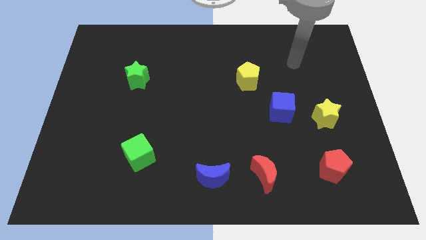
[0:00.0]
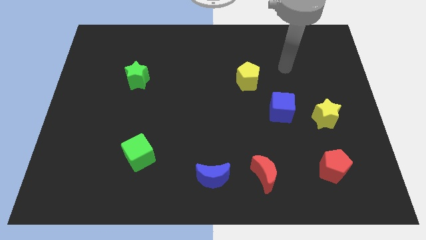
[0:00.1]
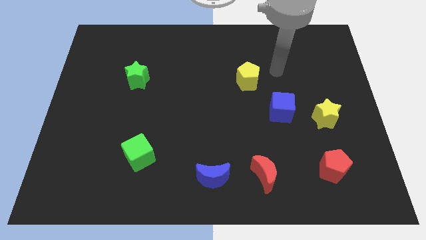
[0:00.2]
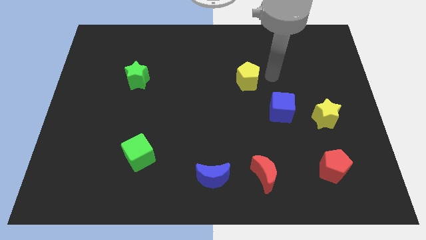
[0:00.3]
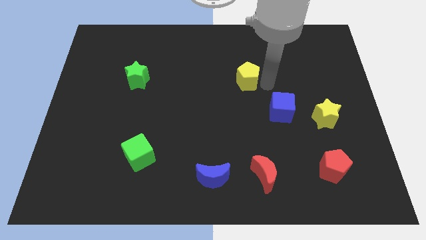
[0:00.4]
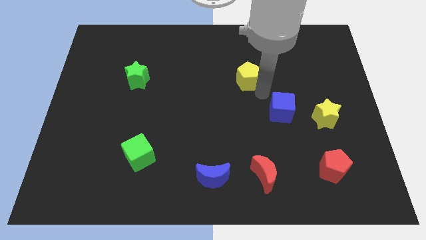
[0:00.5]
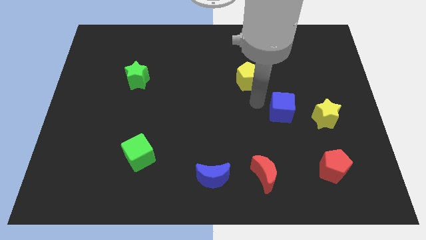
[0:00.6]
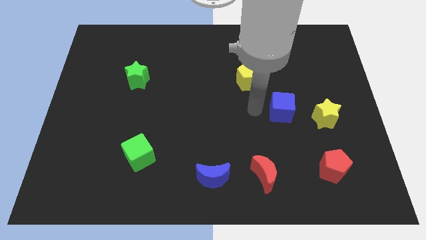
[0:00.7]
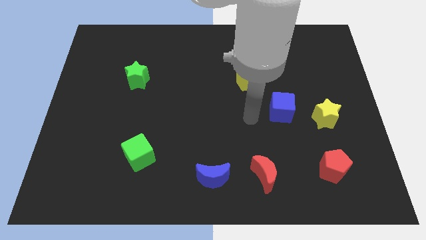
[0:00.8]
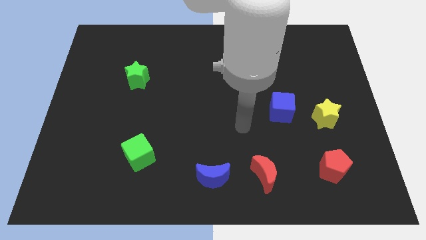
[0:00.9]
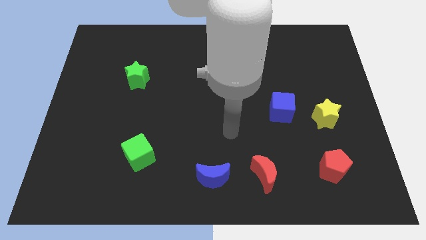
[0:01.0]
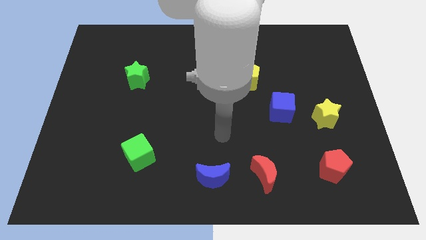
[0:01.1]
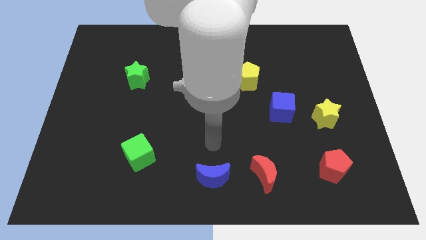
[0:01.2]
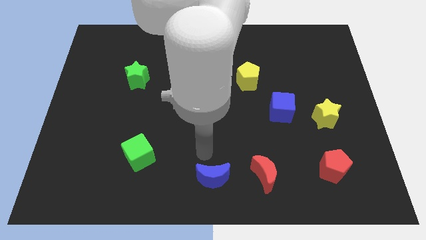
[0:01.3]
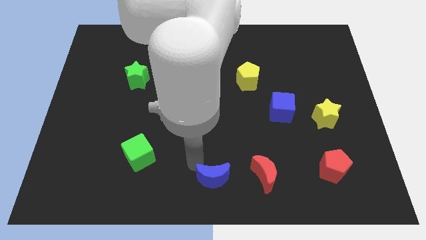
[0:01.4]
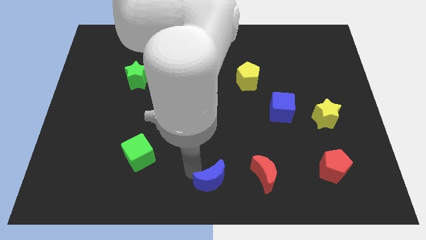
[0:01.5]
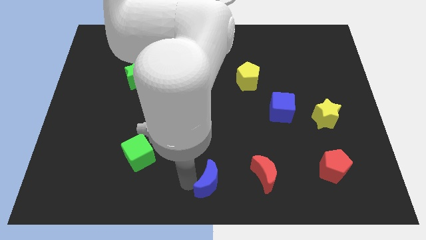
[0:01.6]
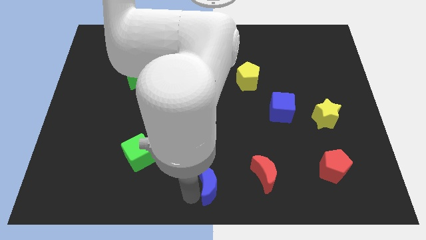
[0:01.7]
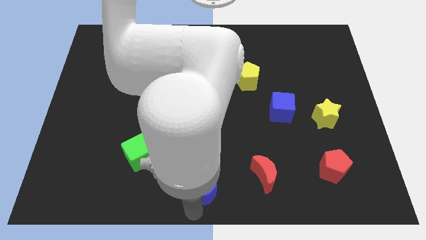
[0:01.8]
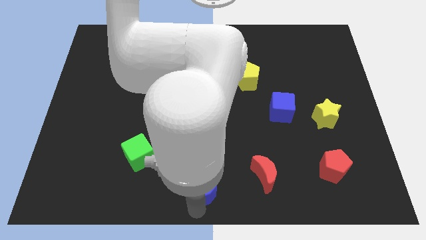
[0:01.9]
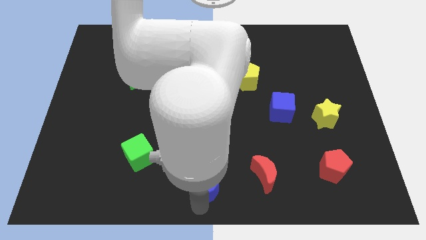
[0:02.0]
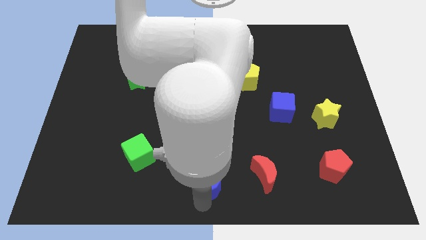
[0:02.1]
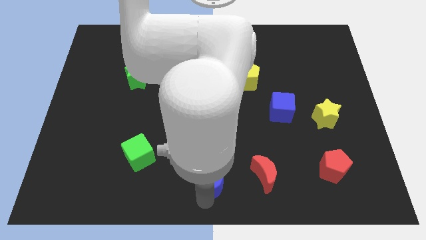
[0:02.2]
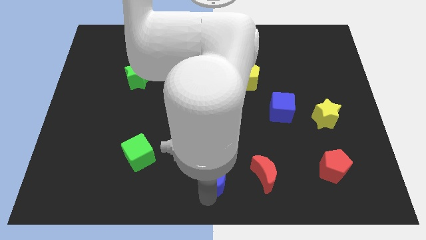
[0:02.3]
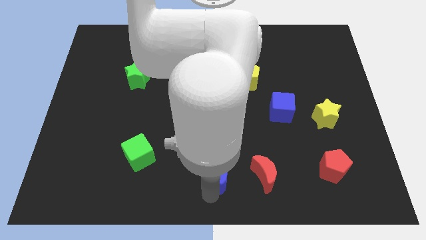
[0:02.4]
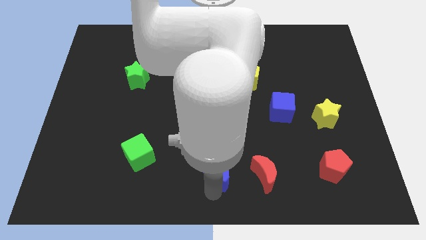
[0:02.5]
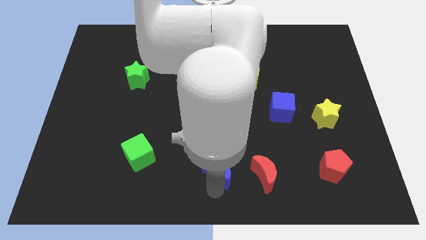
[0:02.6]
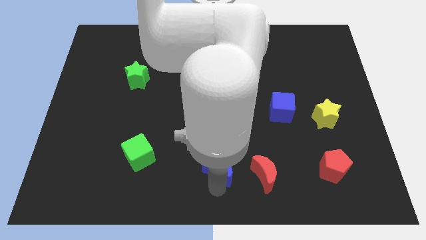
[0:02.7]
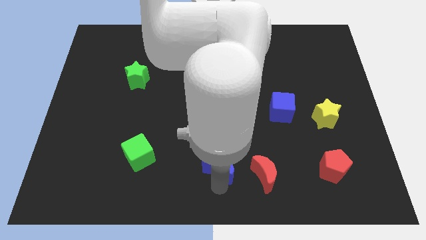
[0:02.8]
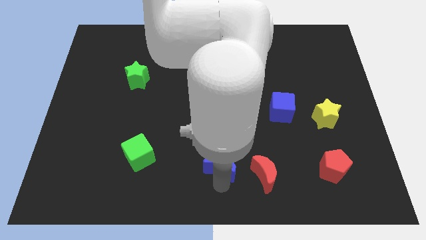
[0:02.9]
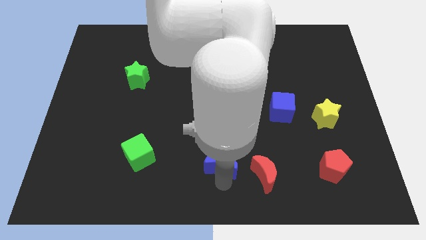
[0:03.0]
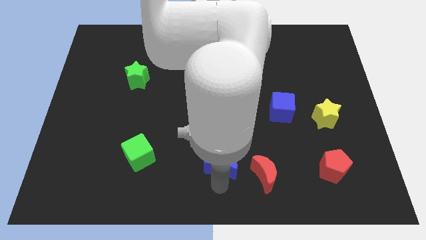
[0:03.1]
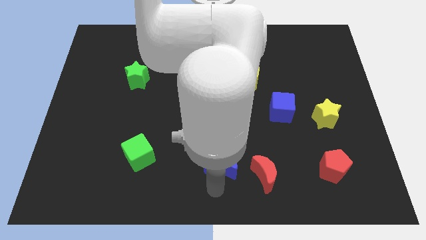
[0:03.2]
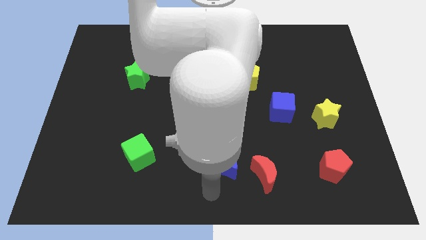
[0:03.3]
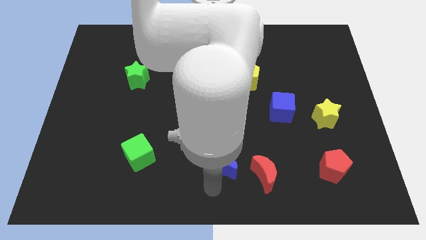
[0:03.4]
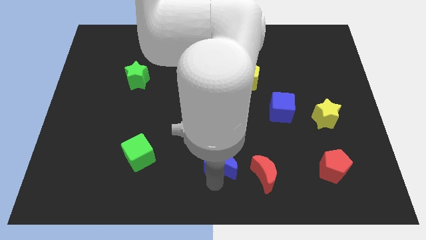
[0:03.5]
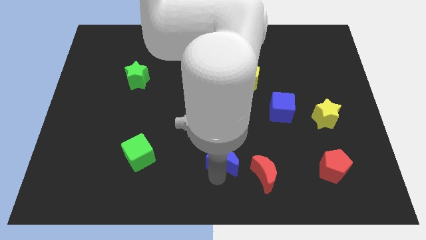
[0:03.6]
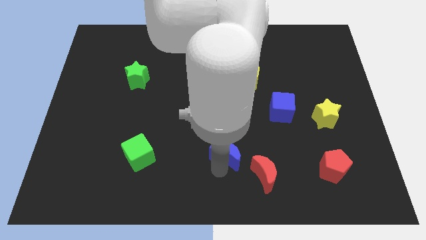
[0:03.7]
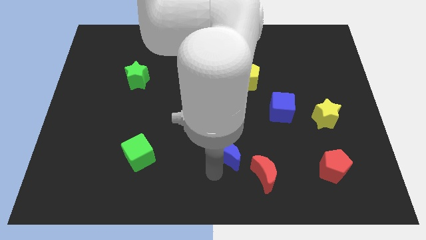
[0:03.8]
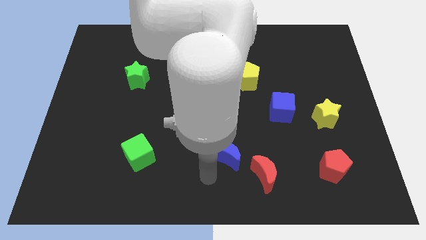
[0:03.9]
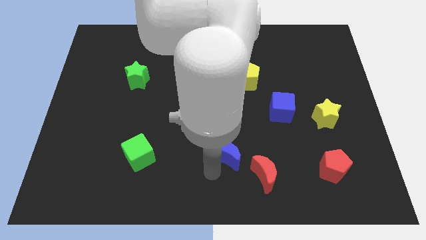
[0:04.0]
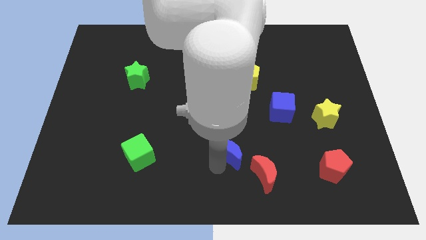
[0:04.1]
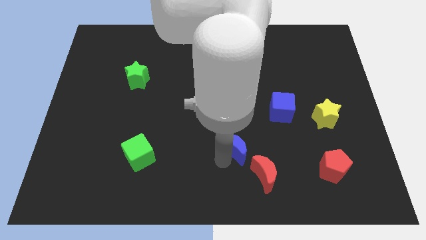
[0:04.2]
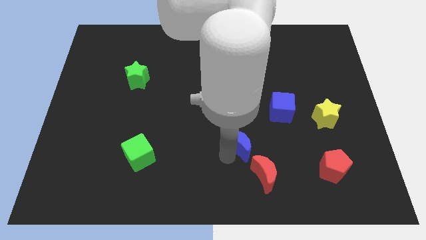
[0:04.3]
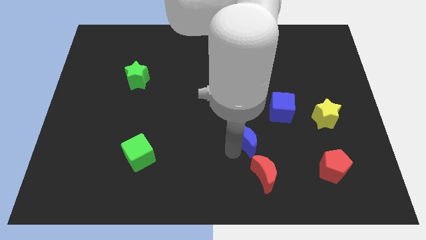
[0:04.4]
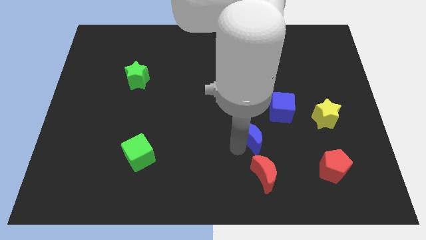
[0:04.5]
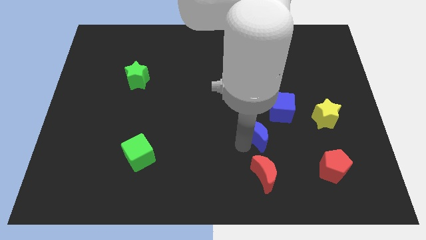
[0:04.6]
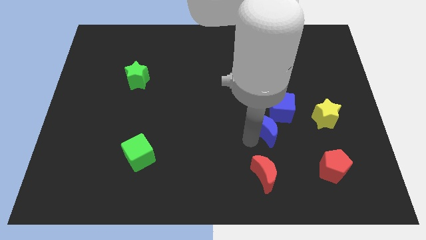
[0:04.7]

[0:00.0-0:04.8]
push the blue moon to the left side of the yellow star

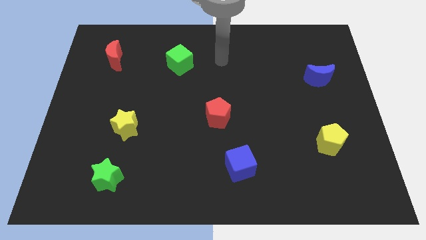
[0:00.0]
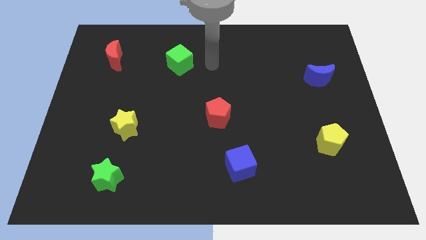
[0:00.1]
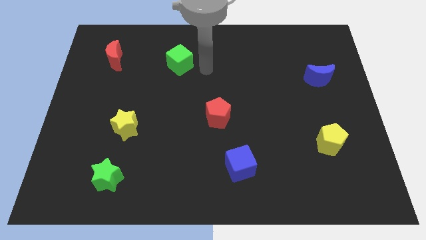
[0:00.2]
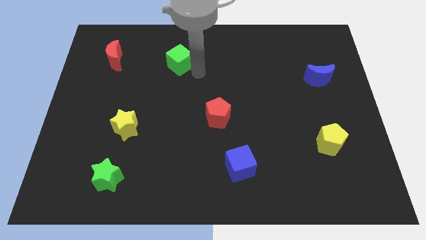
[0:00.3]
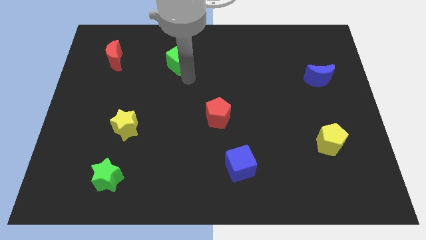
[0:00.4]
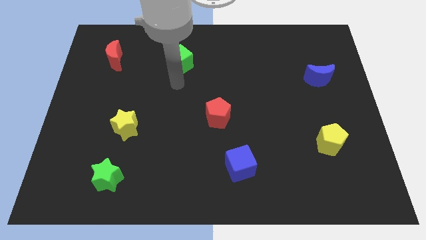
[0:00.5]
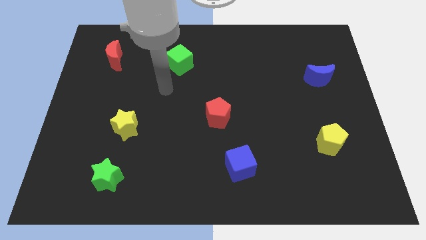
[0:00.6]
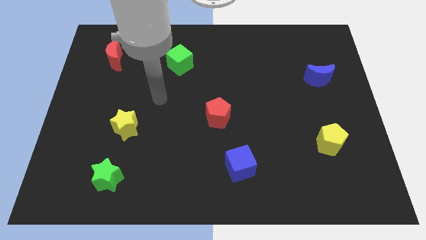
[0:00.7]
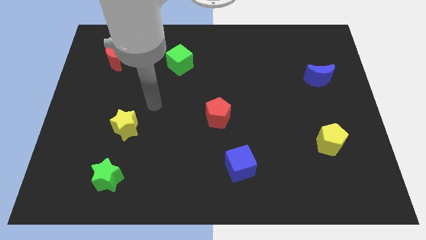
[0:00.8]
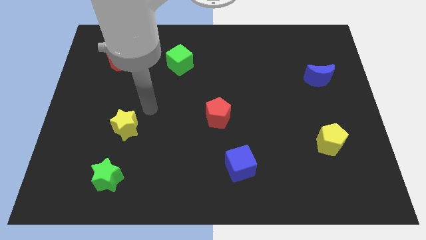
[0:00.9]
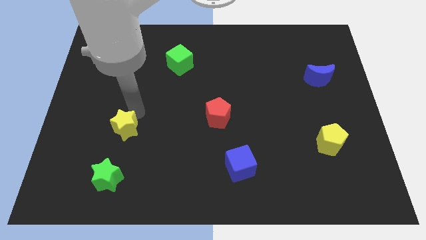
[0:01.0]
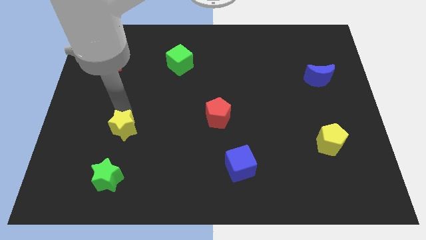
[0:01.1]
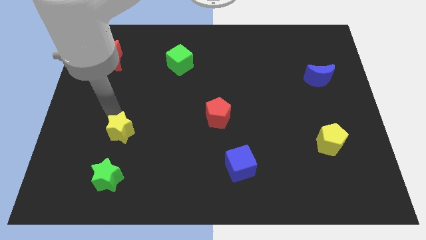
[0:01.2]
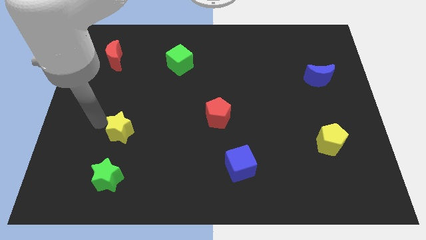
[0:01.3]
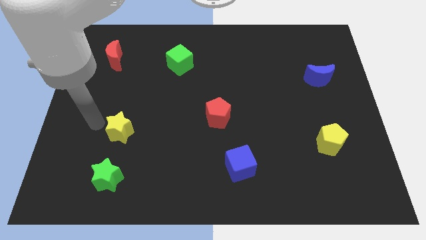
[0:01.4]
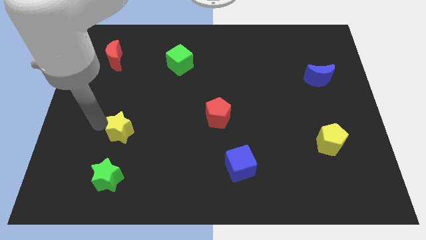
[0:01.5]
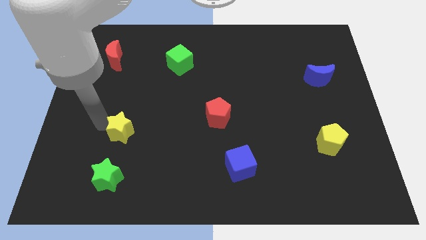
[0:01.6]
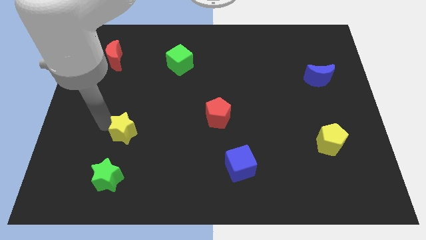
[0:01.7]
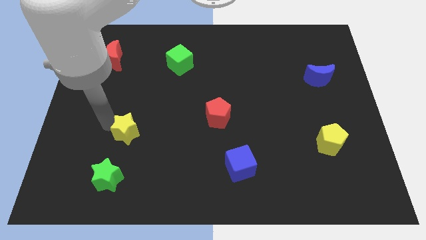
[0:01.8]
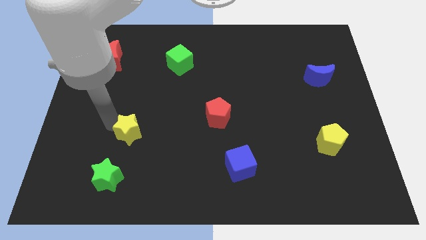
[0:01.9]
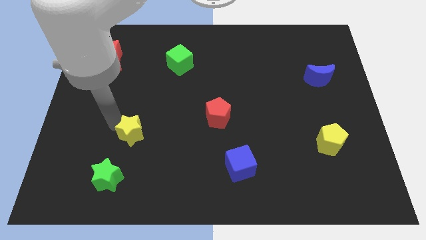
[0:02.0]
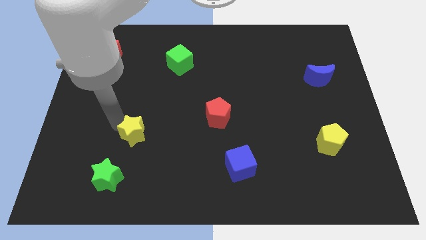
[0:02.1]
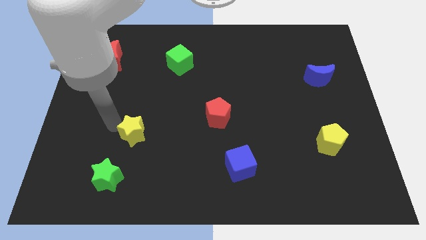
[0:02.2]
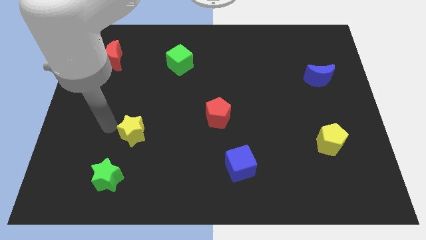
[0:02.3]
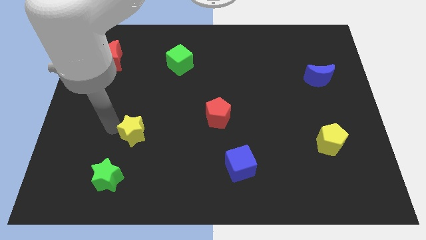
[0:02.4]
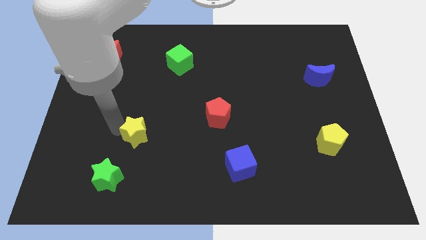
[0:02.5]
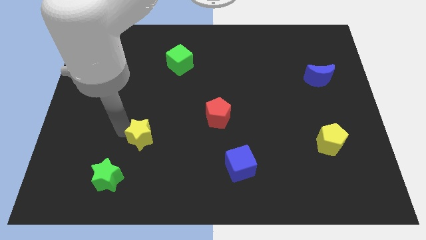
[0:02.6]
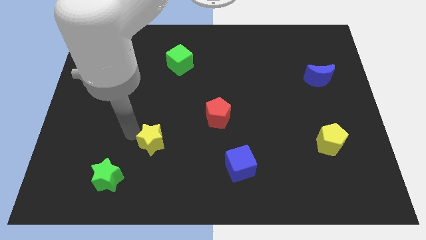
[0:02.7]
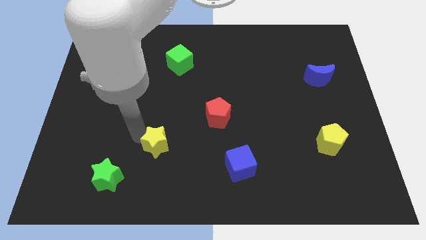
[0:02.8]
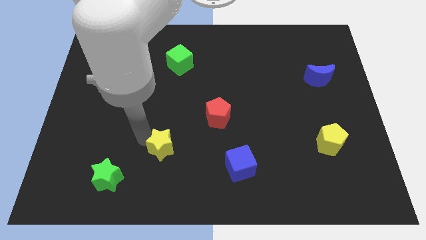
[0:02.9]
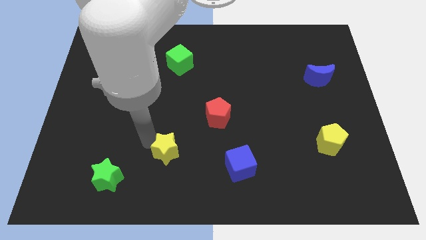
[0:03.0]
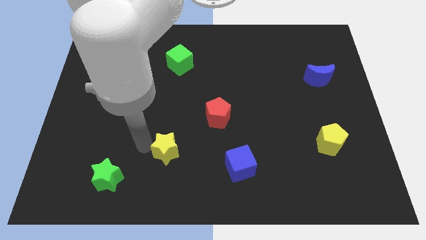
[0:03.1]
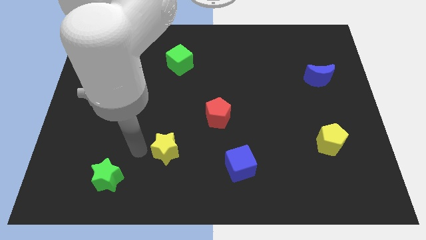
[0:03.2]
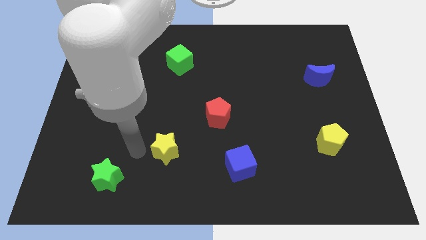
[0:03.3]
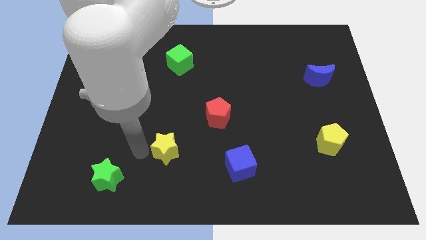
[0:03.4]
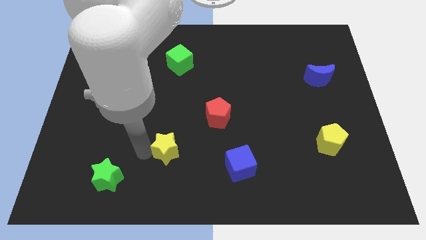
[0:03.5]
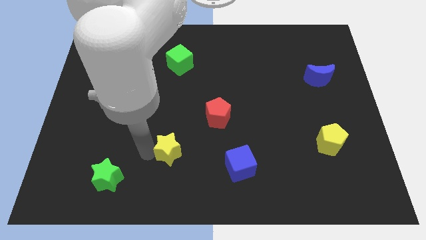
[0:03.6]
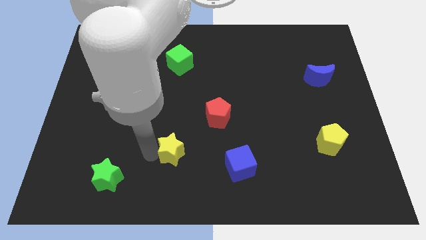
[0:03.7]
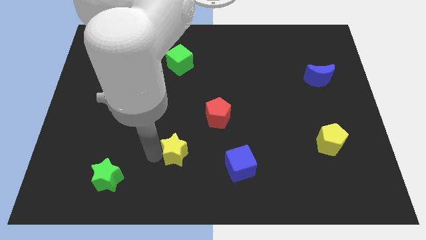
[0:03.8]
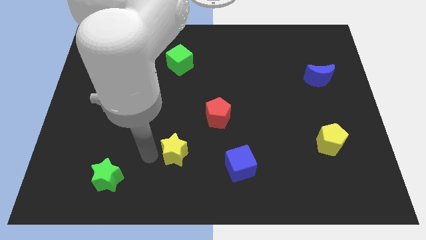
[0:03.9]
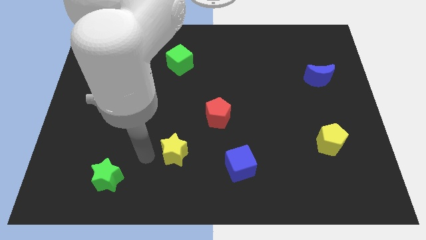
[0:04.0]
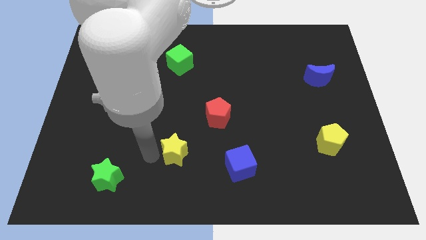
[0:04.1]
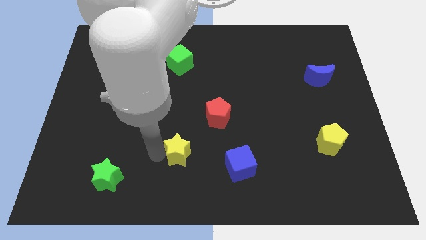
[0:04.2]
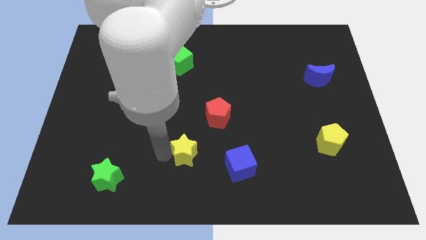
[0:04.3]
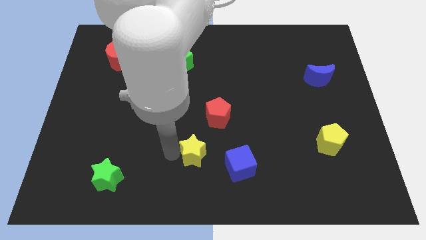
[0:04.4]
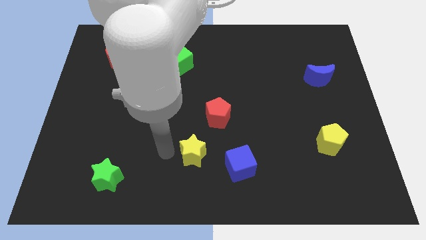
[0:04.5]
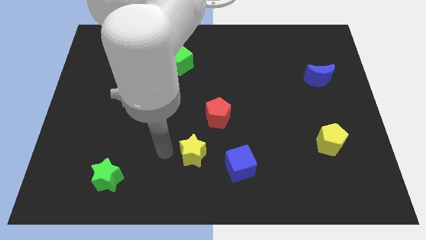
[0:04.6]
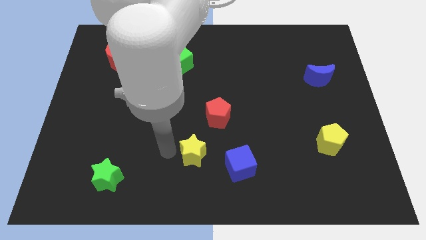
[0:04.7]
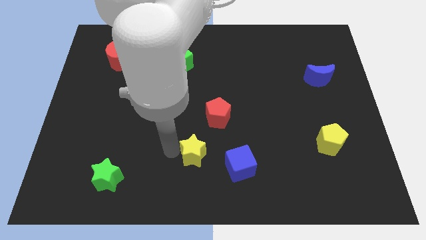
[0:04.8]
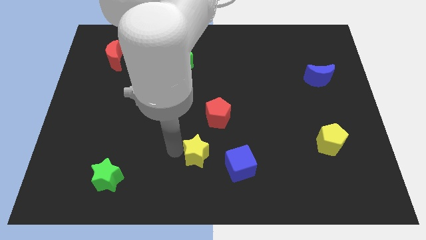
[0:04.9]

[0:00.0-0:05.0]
slide the yellow star below the red pentagon
